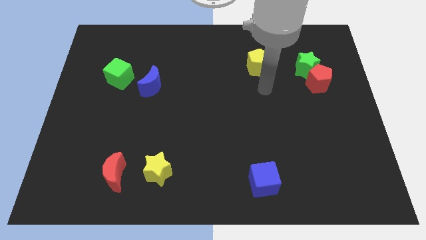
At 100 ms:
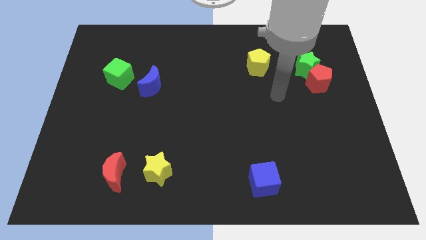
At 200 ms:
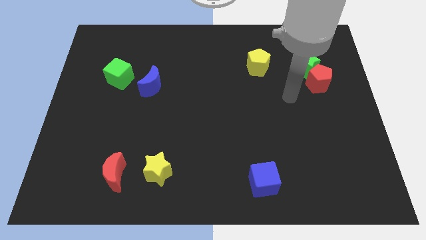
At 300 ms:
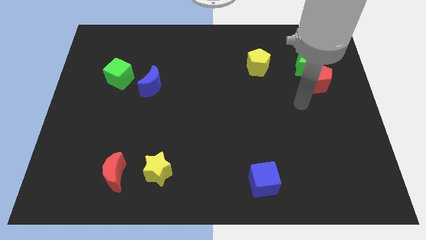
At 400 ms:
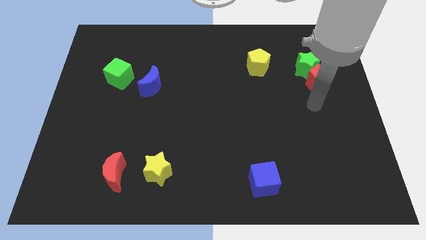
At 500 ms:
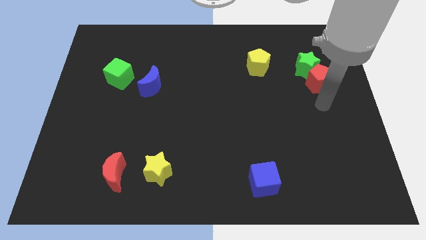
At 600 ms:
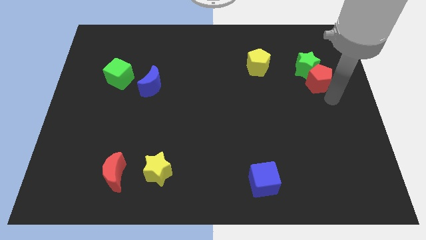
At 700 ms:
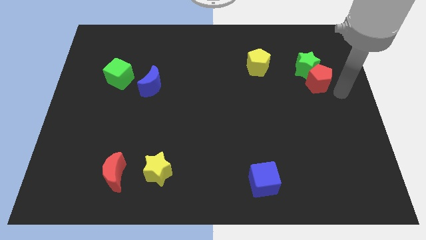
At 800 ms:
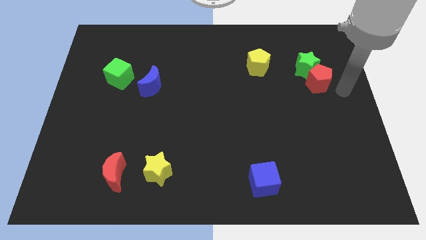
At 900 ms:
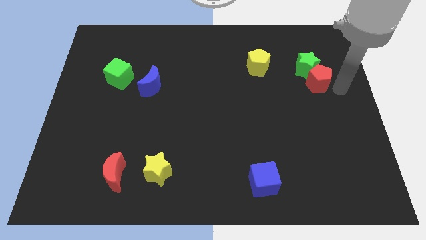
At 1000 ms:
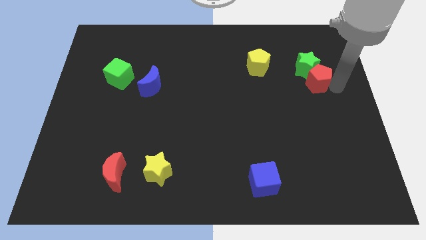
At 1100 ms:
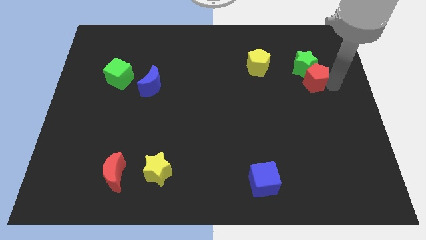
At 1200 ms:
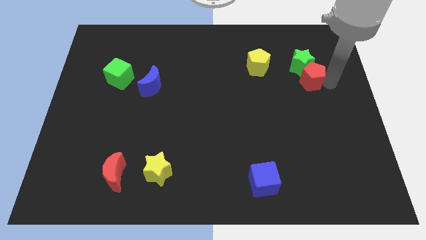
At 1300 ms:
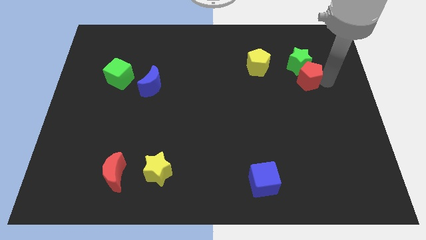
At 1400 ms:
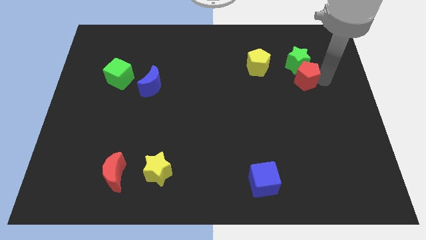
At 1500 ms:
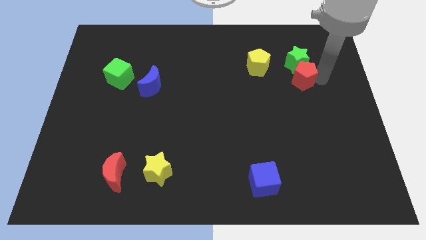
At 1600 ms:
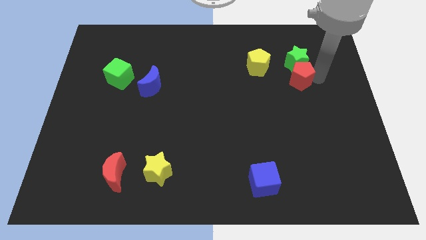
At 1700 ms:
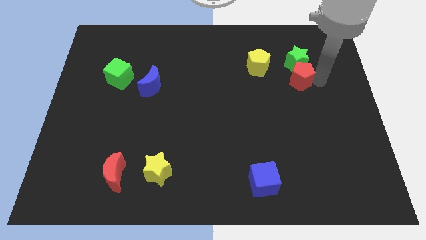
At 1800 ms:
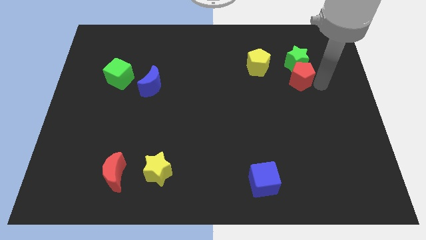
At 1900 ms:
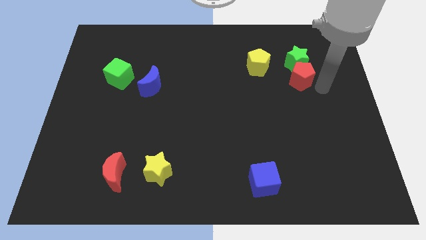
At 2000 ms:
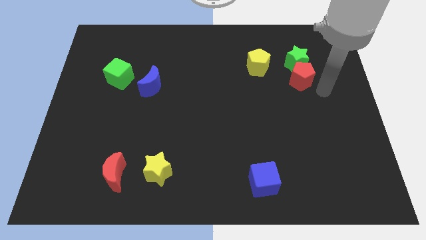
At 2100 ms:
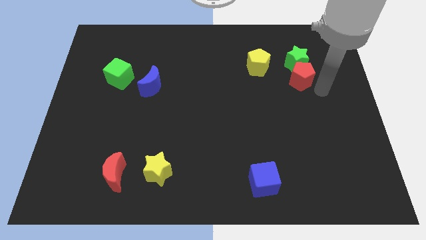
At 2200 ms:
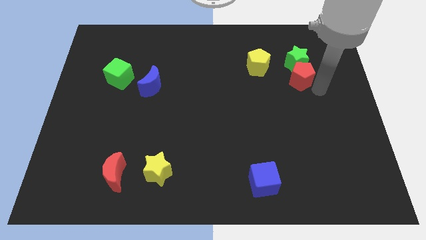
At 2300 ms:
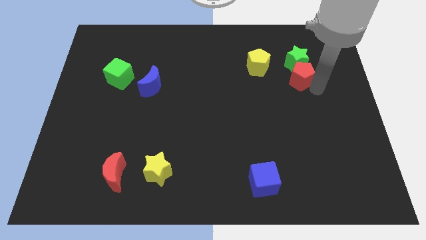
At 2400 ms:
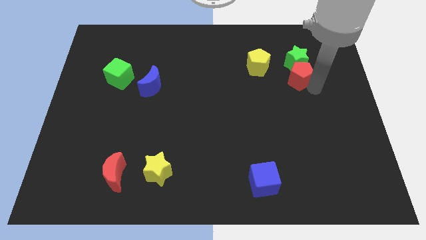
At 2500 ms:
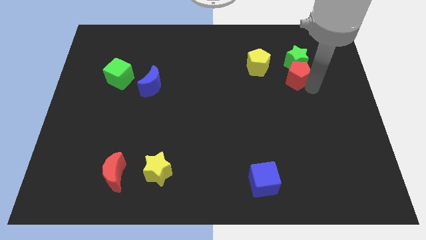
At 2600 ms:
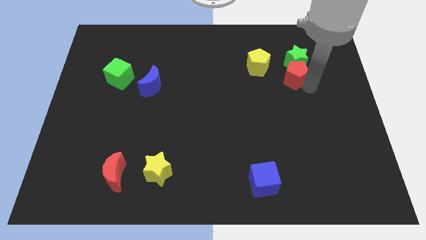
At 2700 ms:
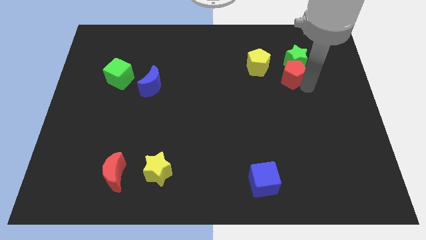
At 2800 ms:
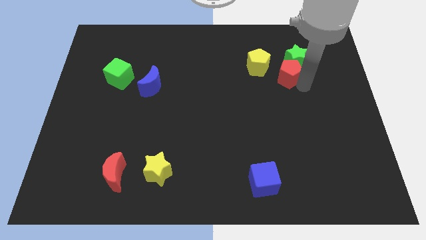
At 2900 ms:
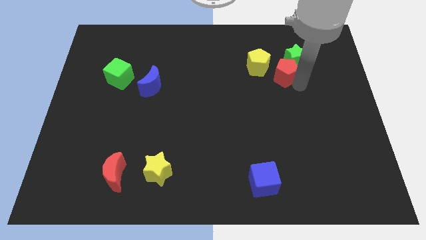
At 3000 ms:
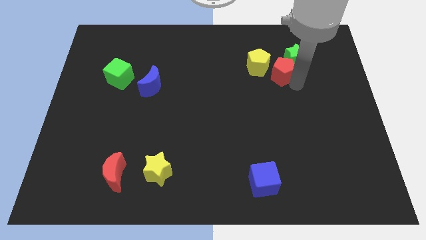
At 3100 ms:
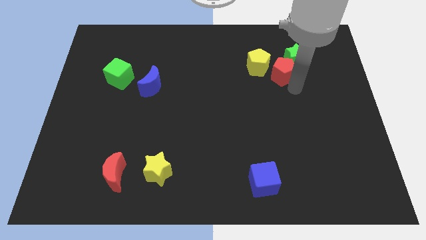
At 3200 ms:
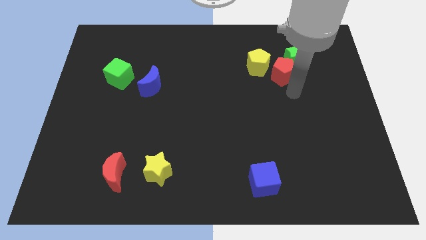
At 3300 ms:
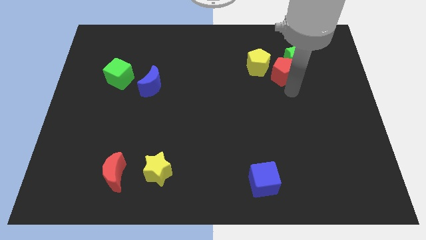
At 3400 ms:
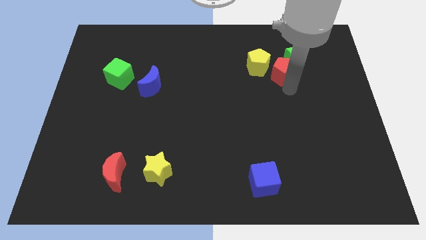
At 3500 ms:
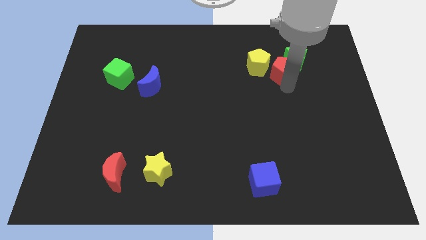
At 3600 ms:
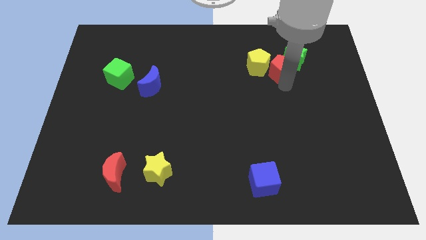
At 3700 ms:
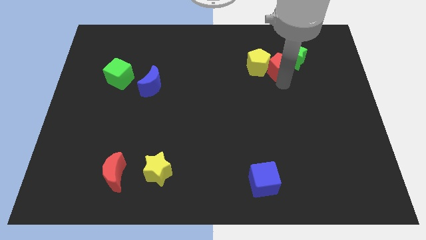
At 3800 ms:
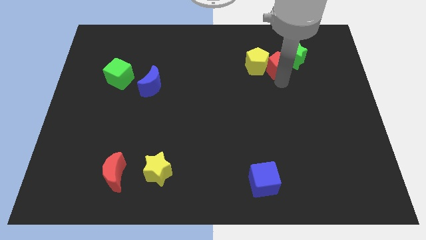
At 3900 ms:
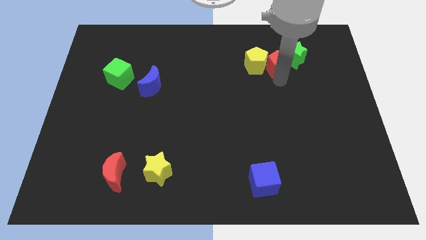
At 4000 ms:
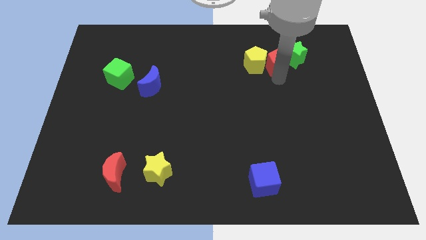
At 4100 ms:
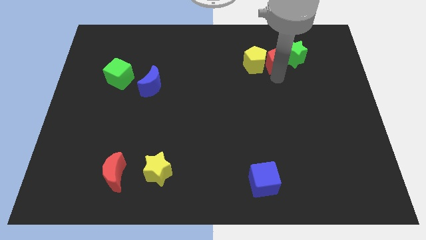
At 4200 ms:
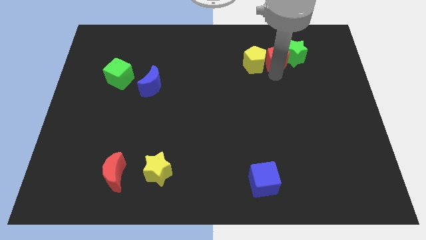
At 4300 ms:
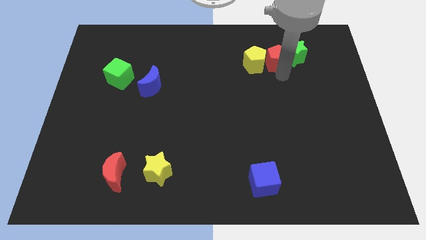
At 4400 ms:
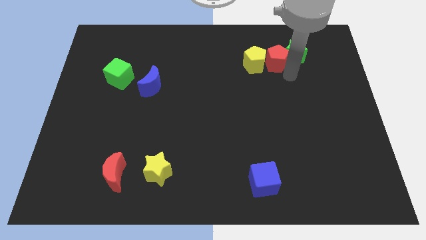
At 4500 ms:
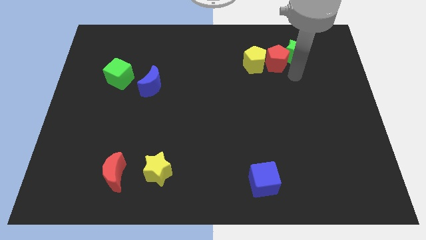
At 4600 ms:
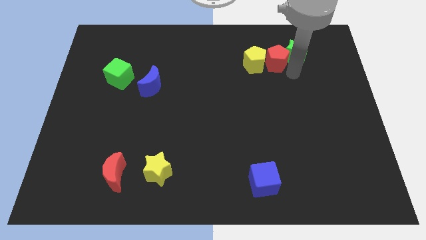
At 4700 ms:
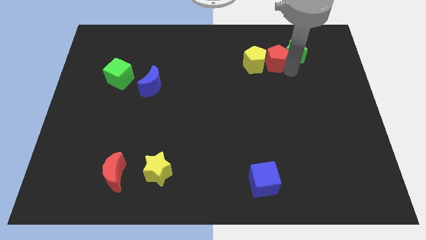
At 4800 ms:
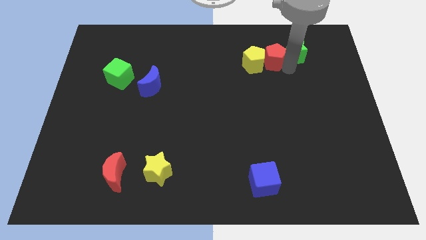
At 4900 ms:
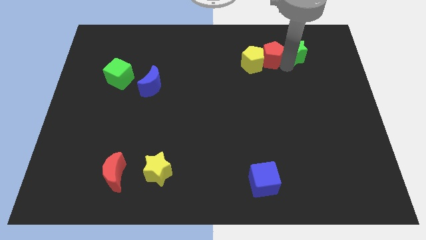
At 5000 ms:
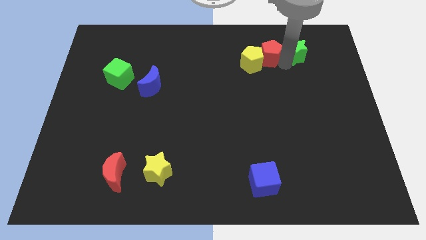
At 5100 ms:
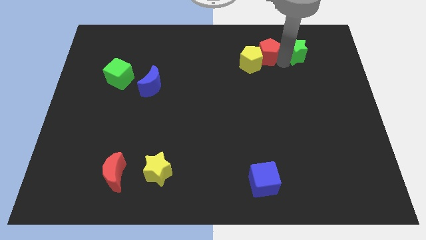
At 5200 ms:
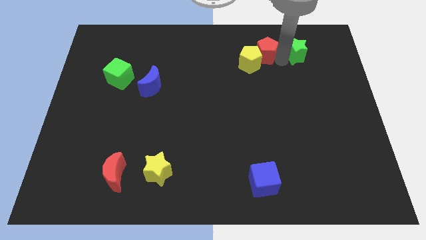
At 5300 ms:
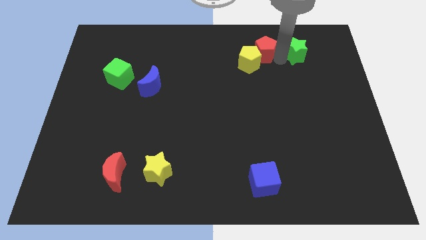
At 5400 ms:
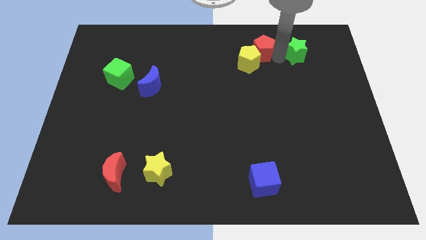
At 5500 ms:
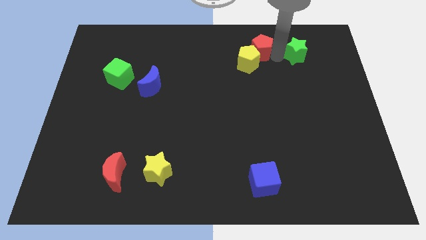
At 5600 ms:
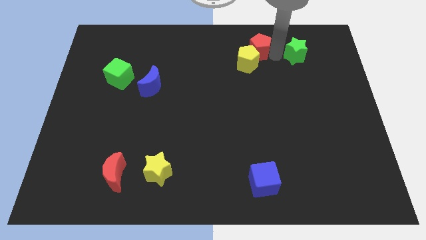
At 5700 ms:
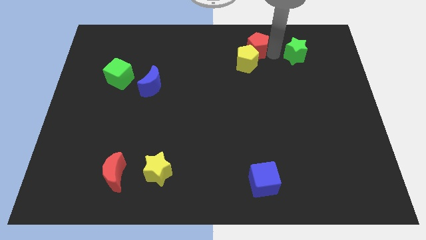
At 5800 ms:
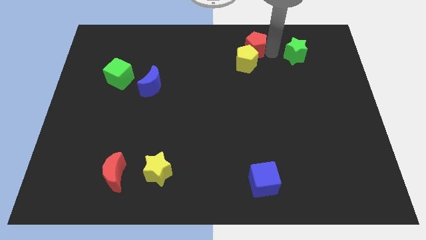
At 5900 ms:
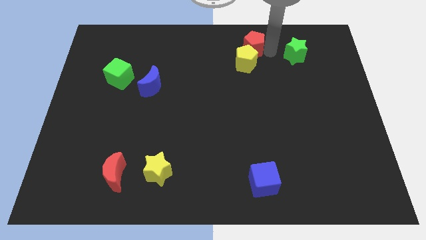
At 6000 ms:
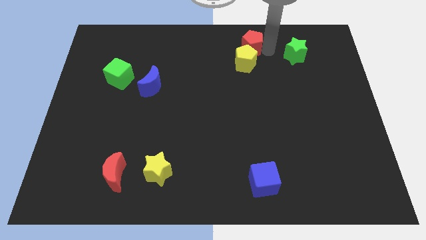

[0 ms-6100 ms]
push the red pentagon to the top side
